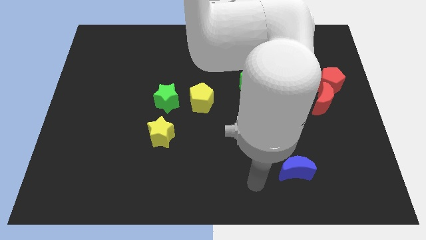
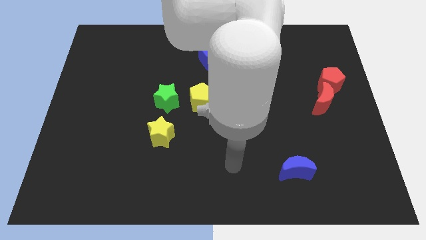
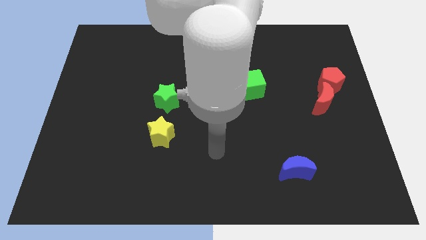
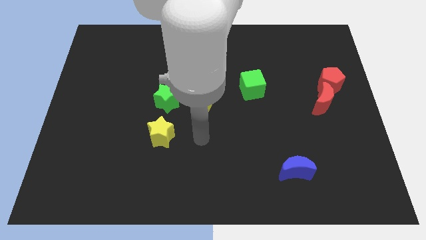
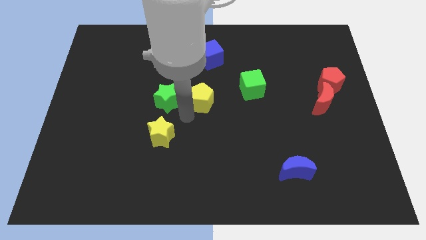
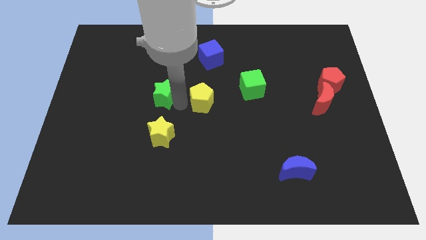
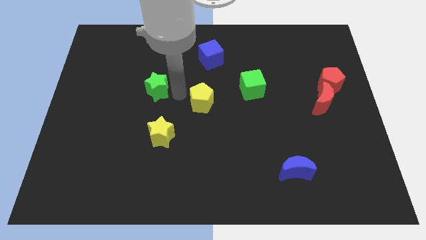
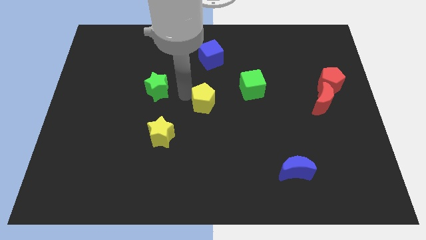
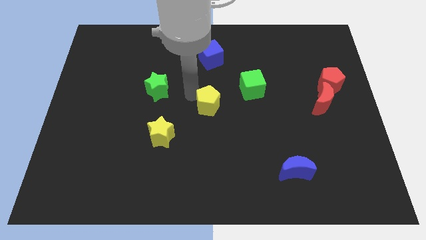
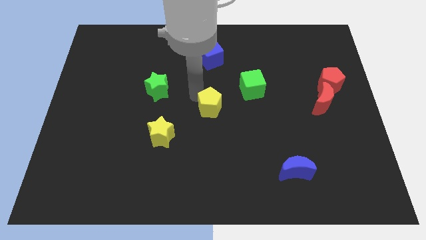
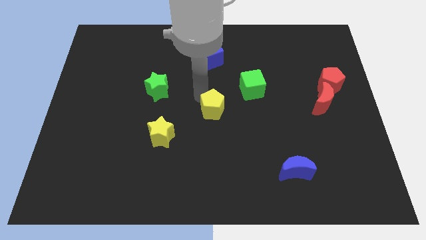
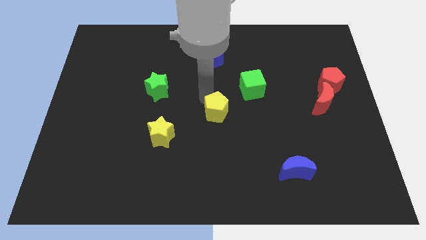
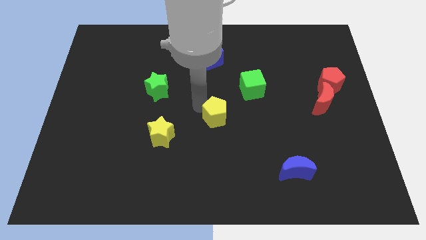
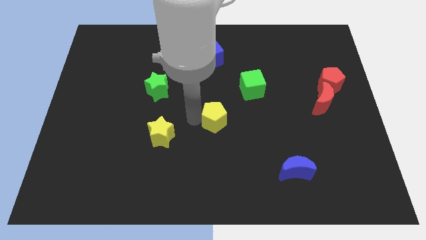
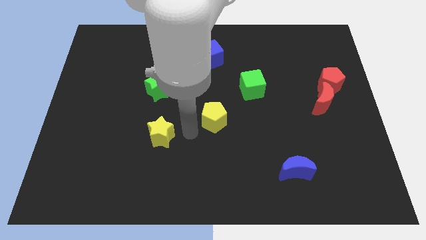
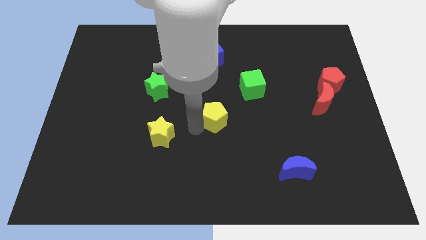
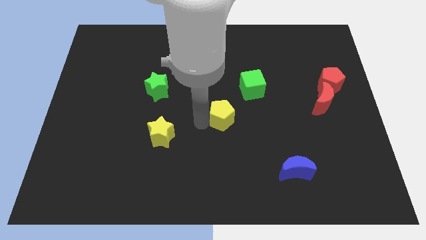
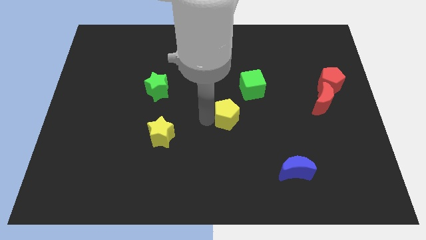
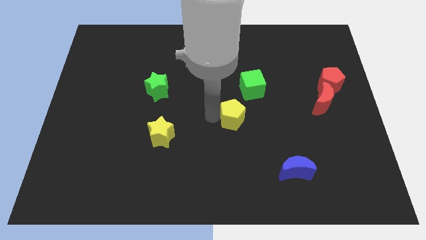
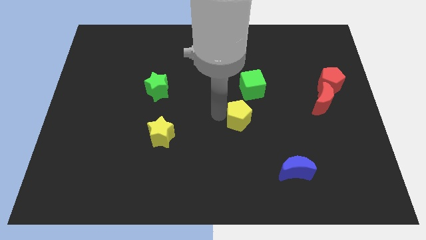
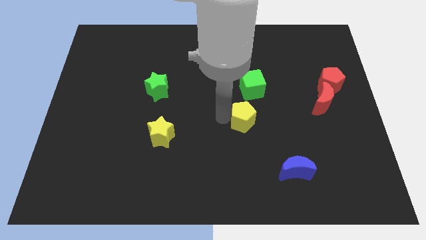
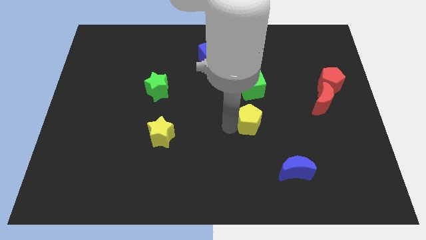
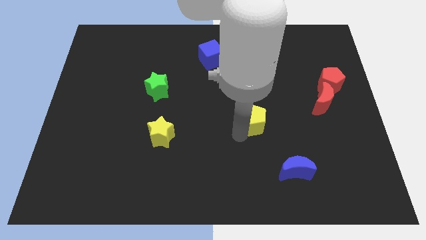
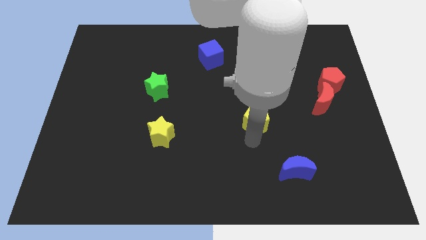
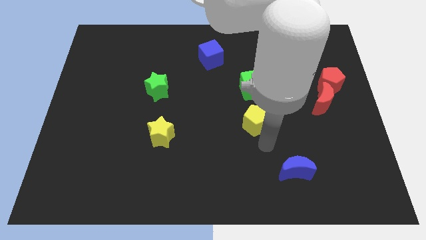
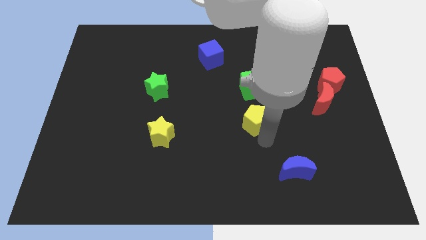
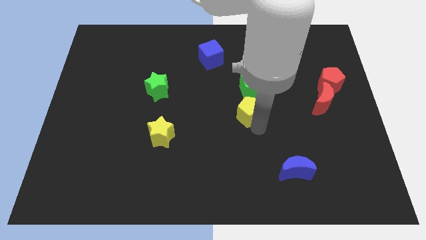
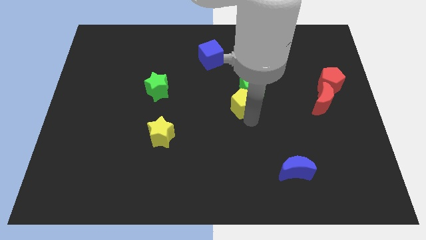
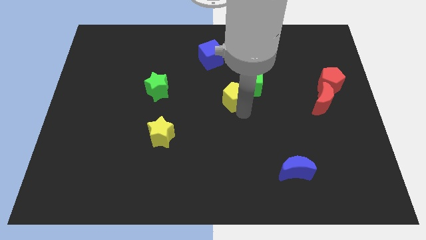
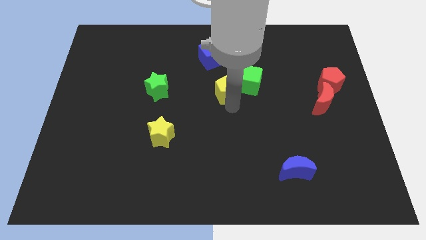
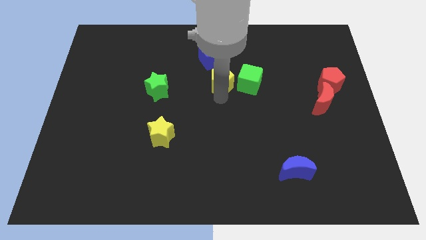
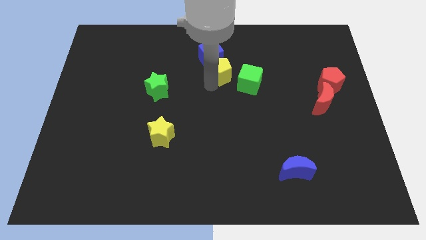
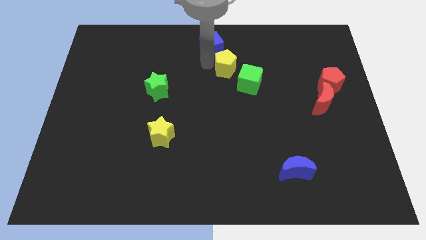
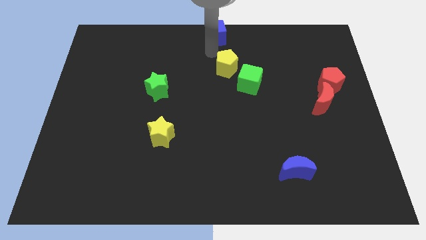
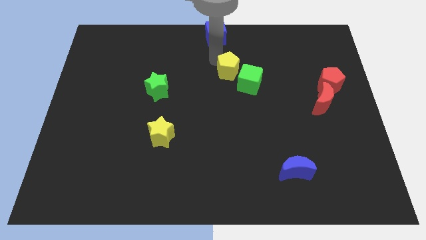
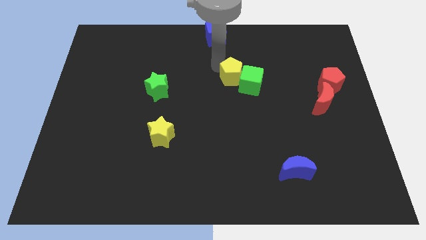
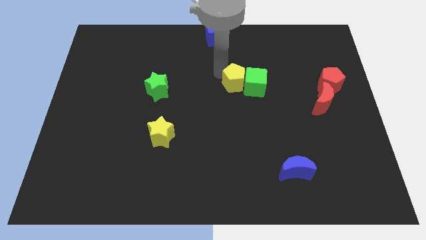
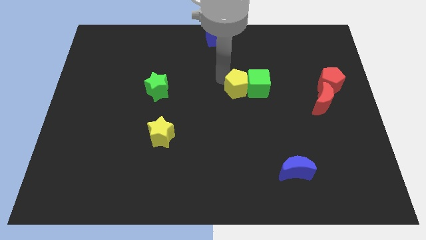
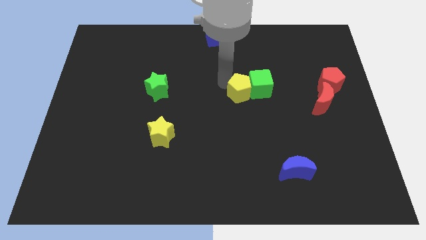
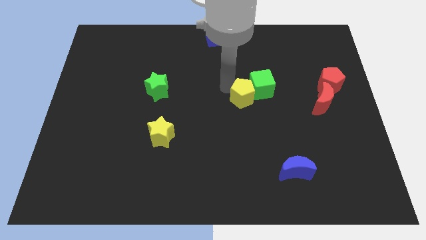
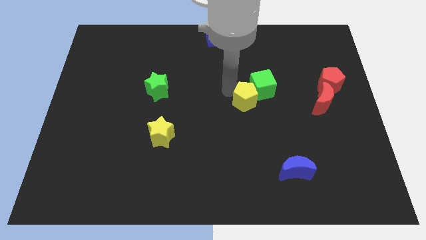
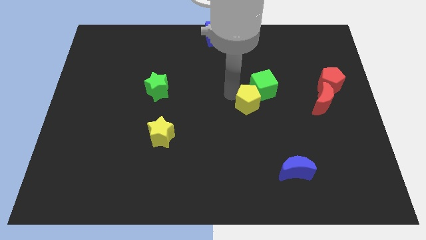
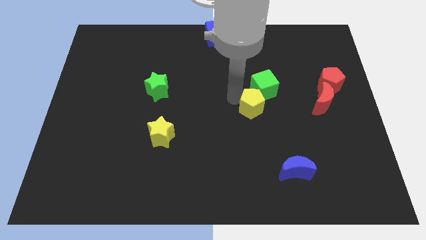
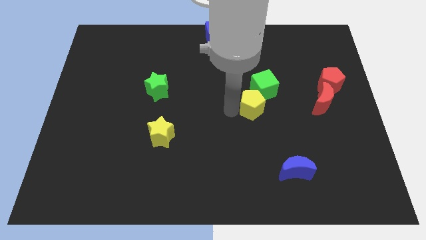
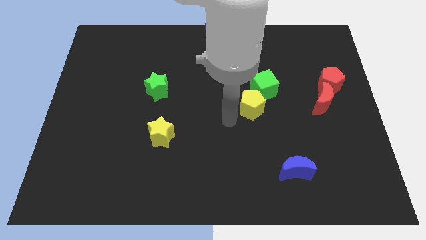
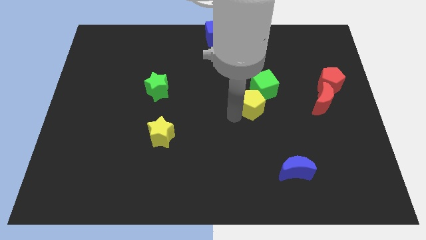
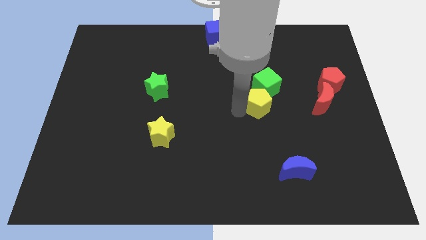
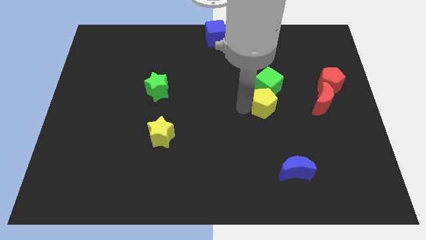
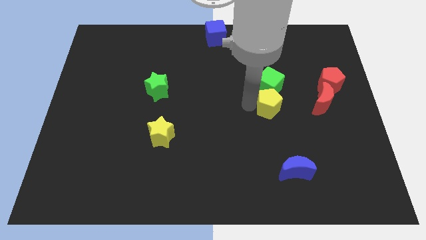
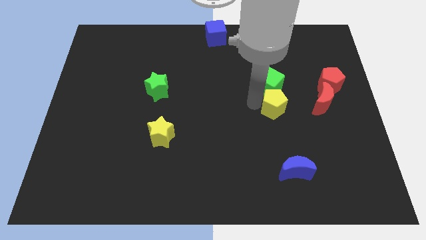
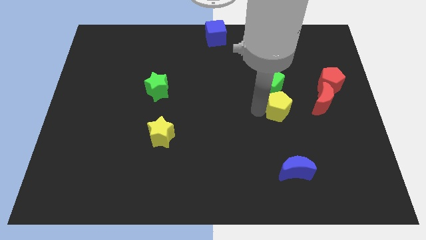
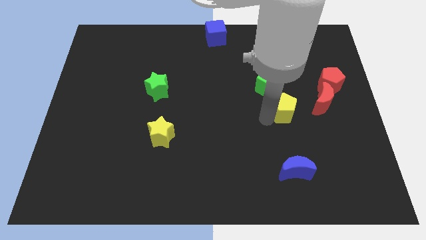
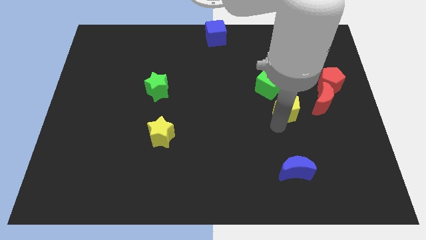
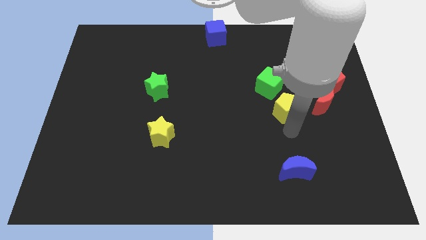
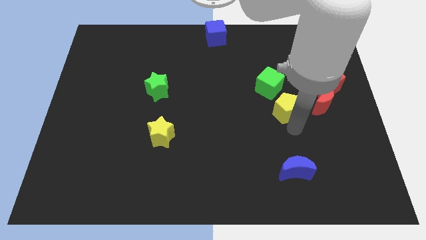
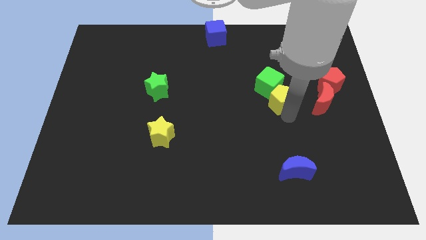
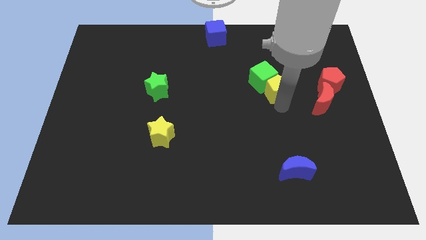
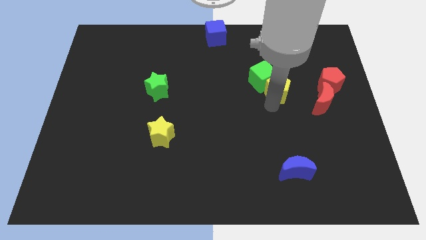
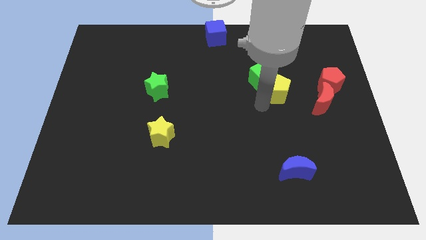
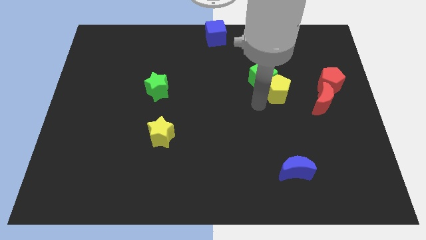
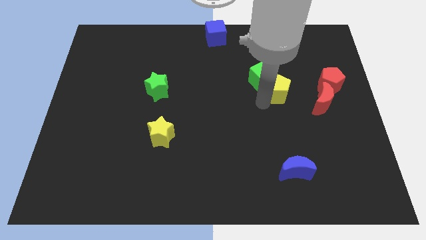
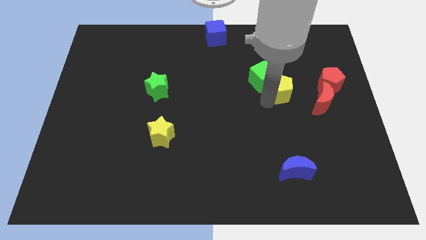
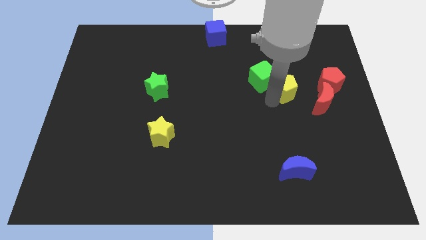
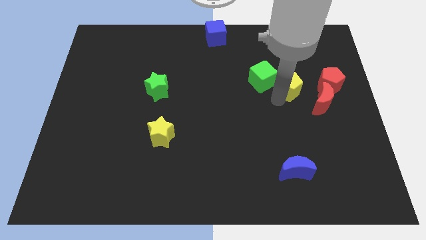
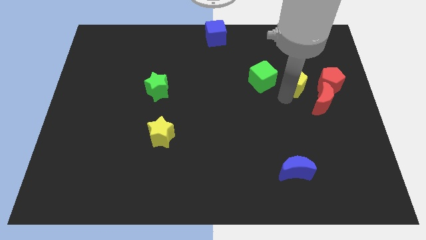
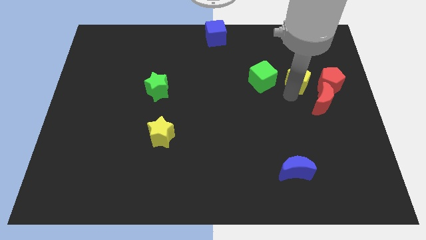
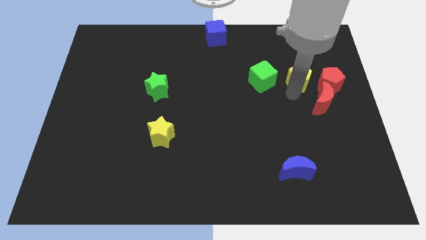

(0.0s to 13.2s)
put the yellow pentagon to the top left of the red pentagon

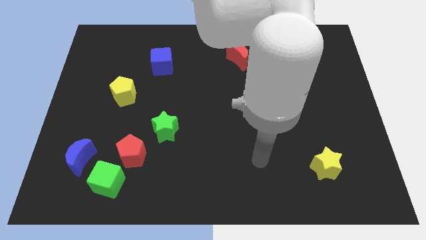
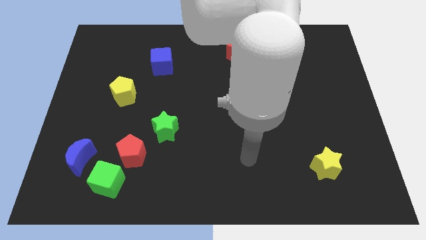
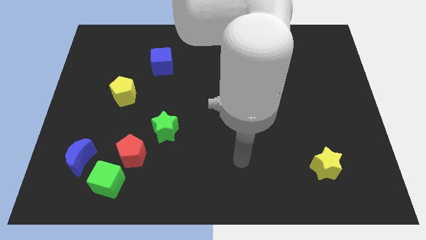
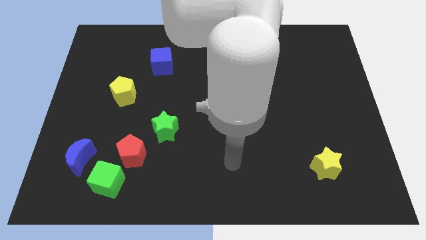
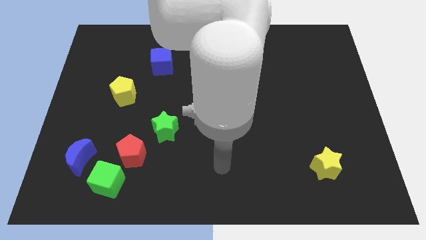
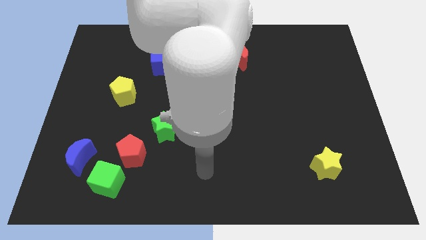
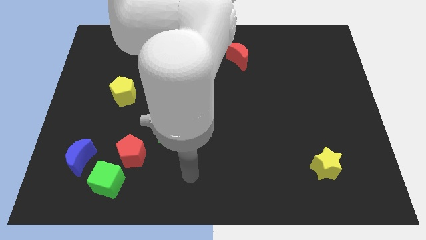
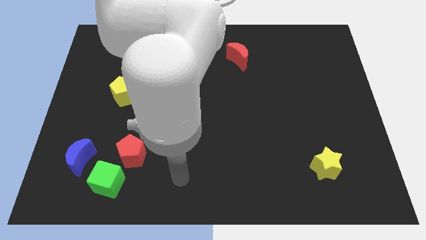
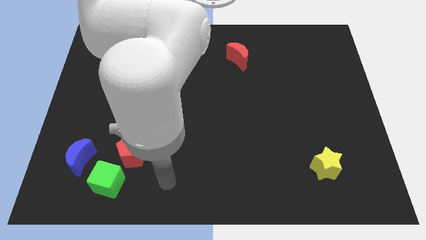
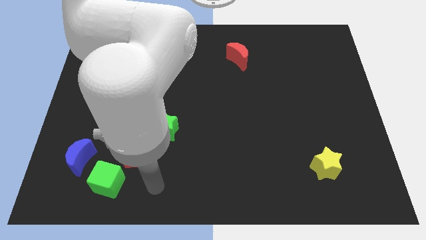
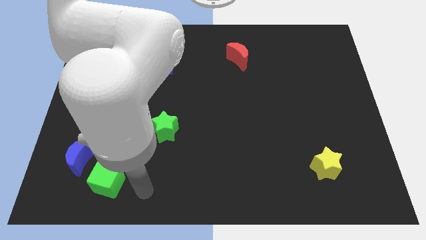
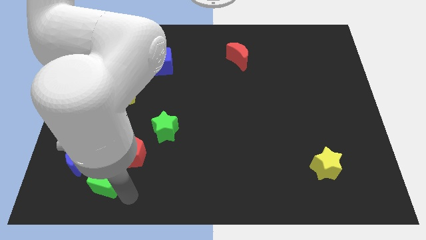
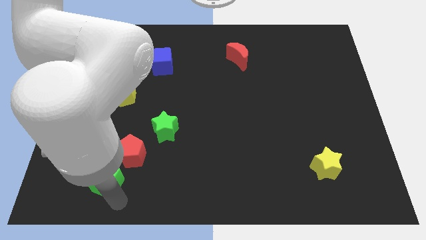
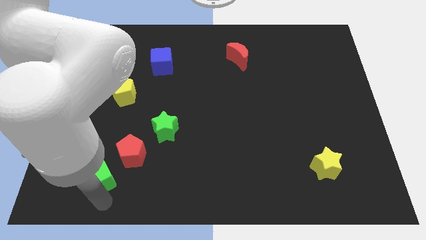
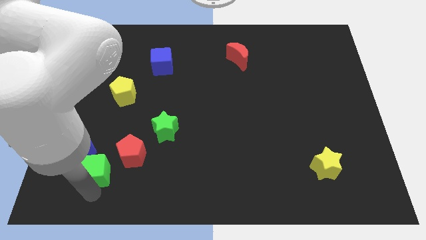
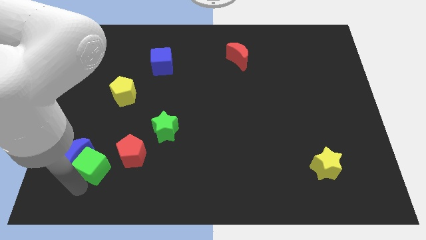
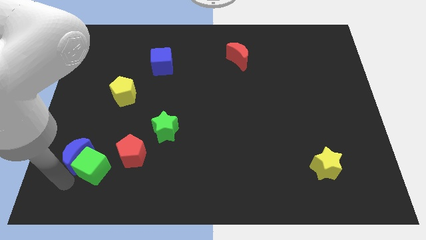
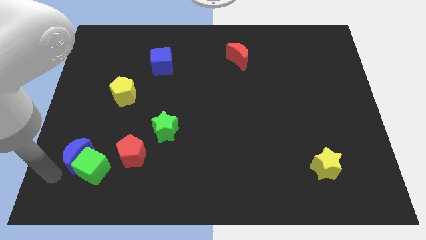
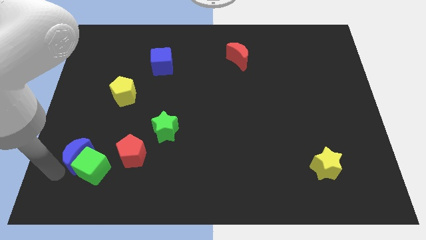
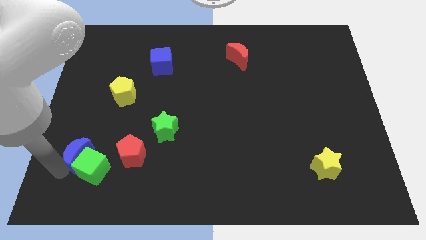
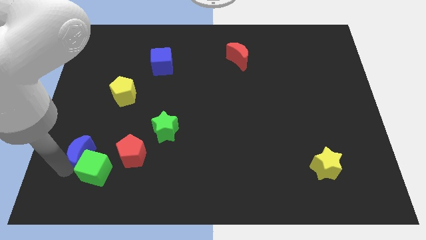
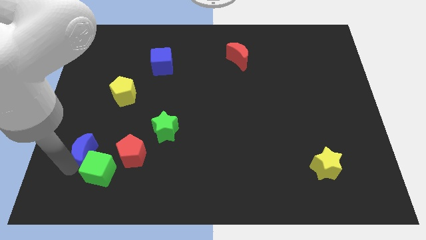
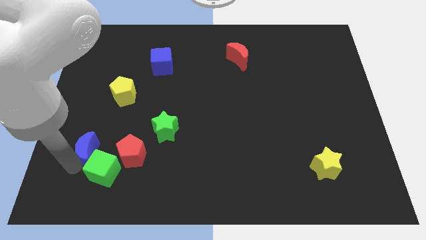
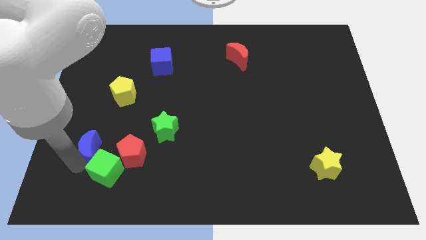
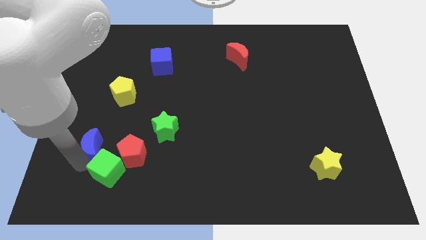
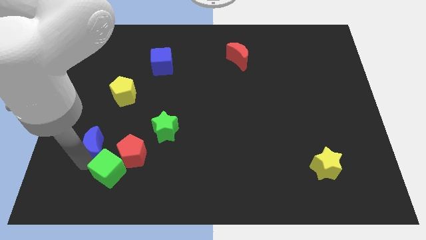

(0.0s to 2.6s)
push the blue moon to the top left of the red pentagon
